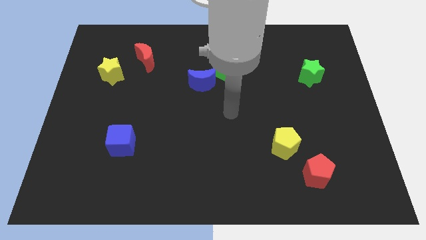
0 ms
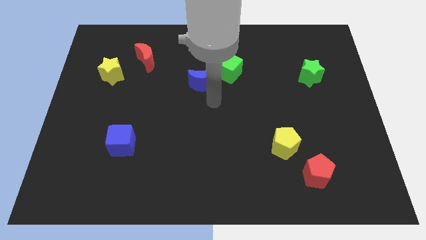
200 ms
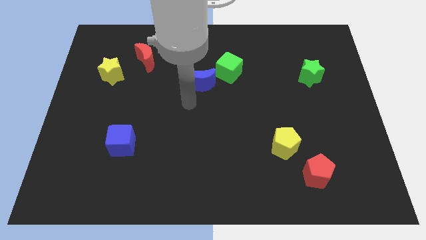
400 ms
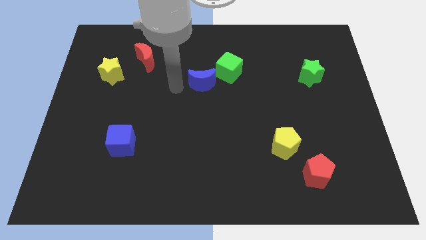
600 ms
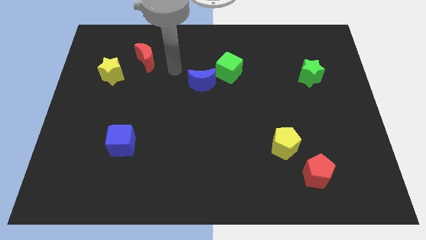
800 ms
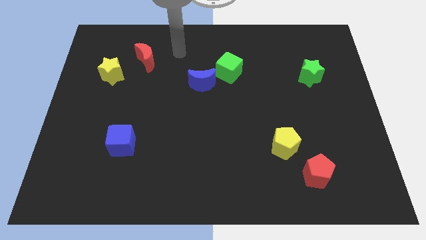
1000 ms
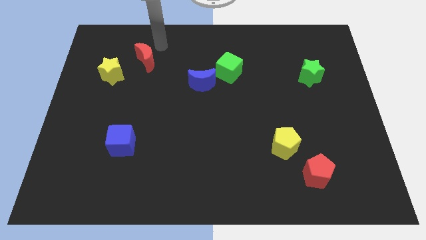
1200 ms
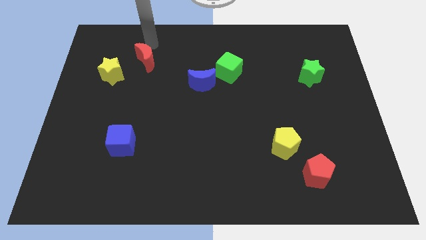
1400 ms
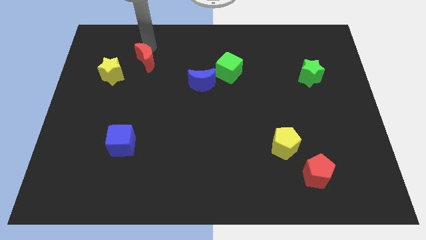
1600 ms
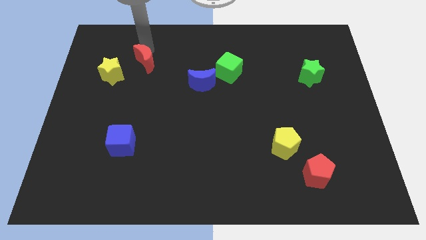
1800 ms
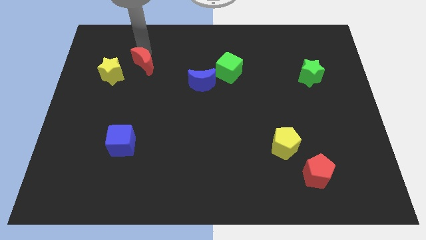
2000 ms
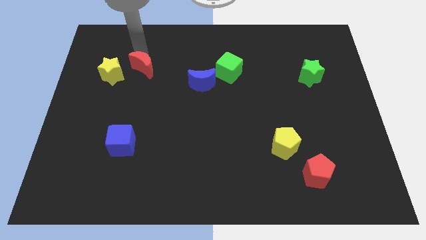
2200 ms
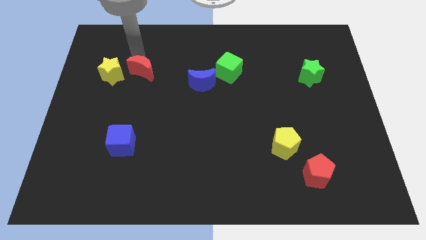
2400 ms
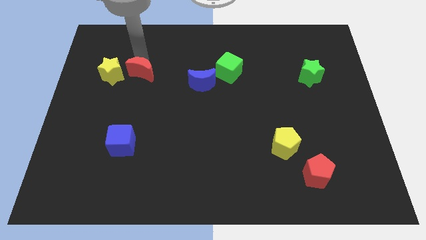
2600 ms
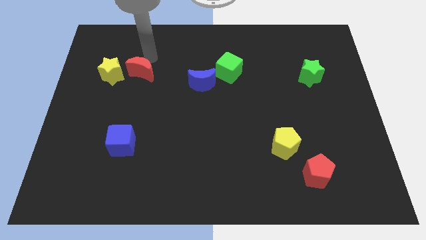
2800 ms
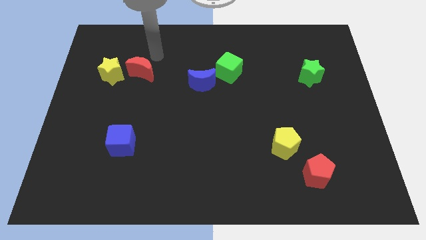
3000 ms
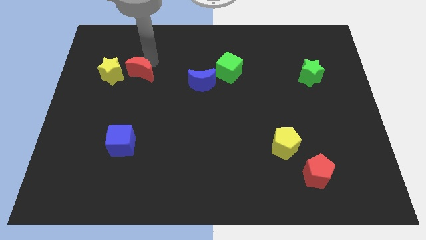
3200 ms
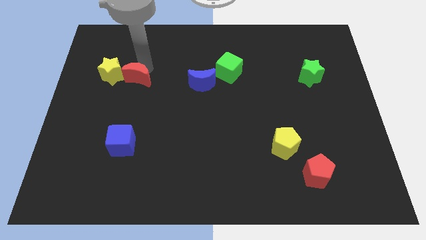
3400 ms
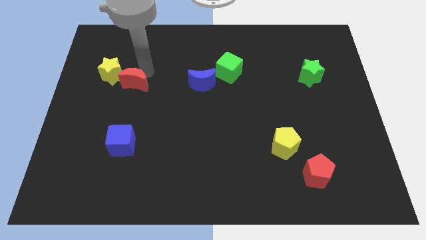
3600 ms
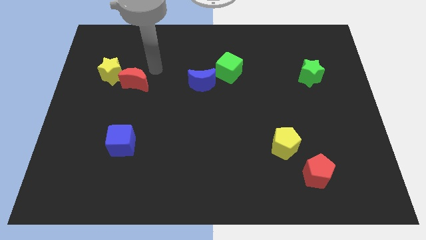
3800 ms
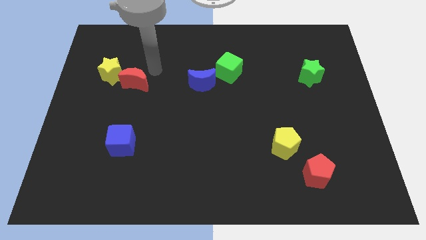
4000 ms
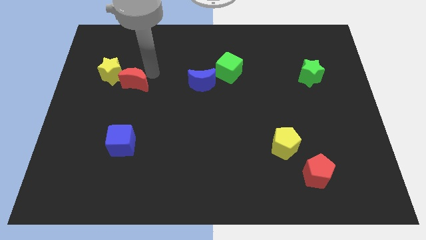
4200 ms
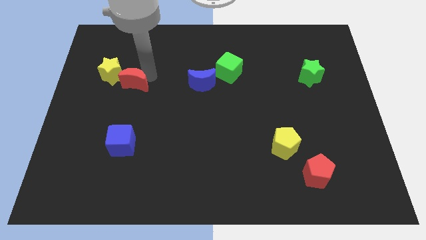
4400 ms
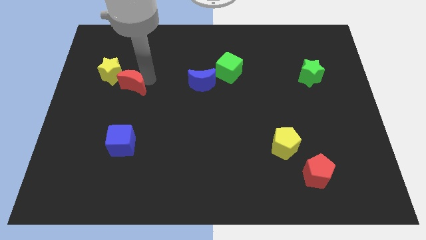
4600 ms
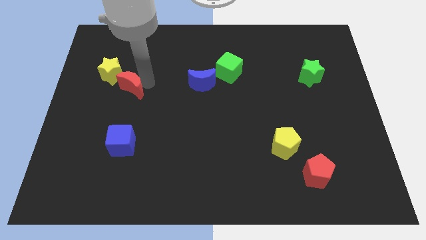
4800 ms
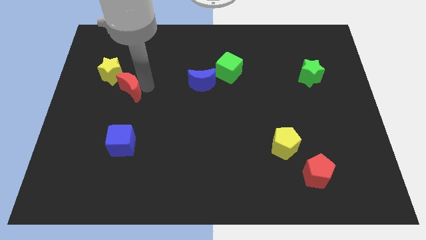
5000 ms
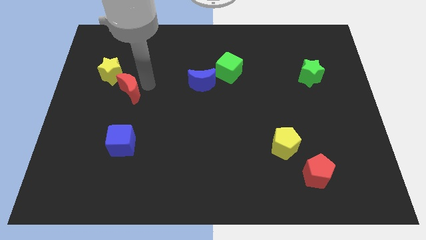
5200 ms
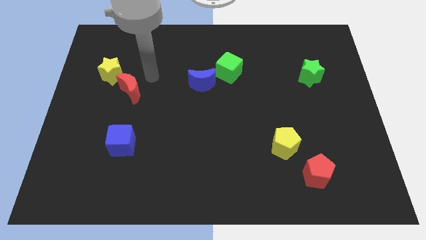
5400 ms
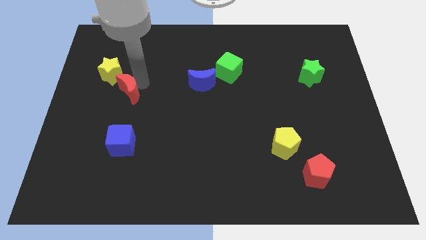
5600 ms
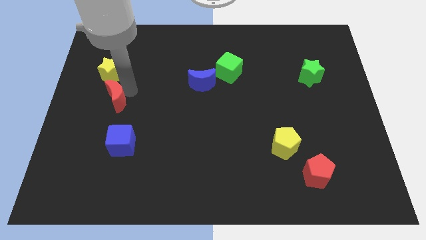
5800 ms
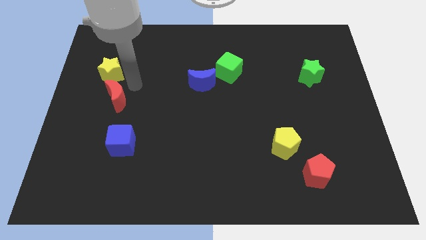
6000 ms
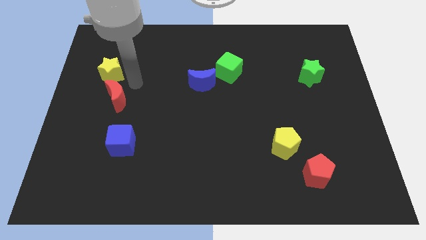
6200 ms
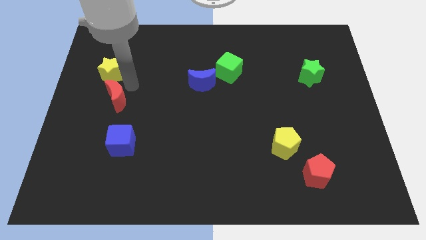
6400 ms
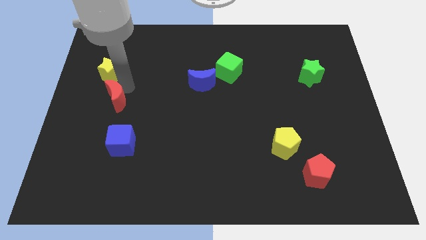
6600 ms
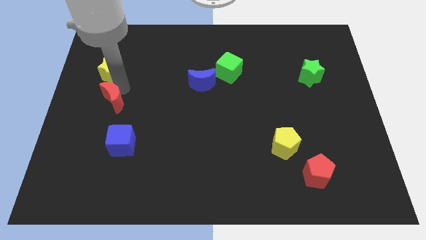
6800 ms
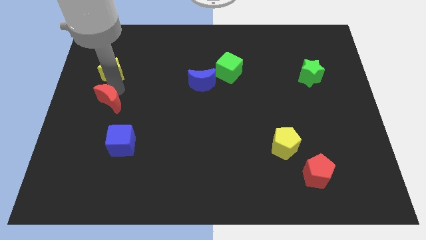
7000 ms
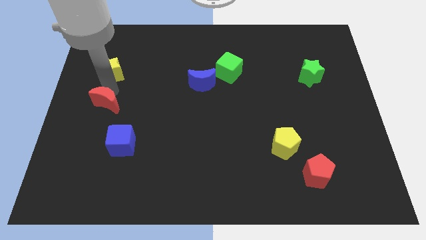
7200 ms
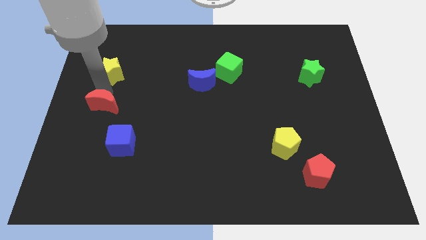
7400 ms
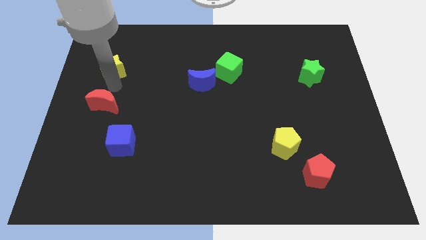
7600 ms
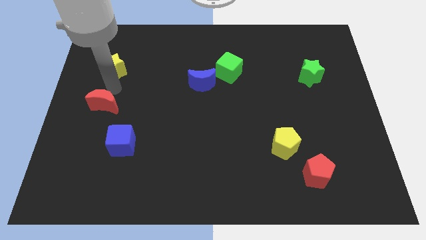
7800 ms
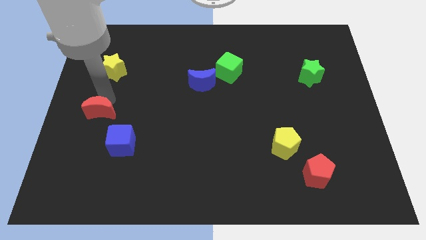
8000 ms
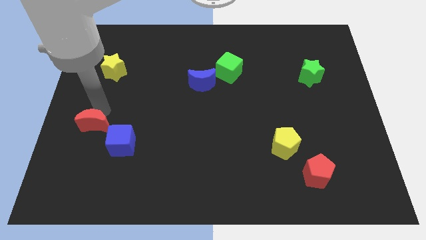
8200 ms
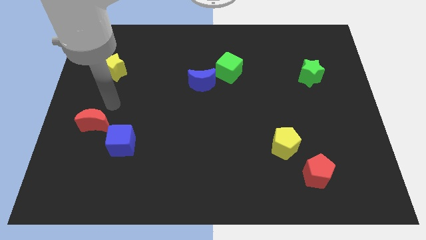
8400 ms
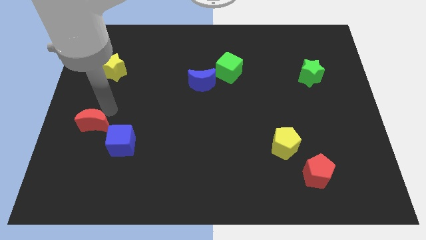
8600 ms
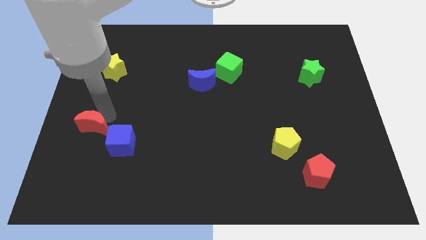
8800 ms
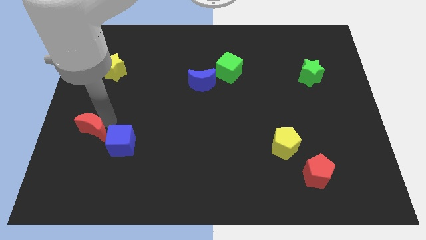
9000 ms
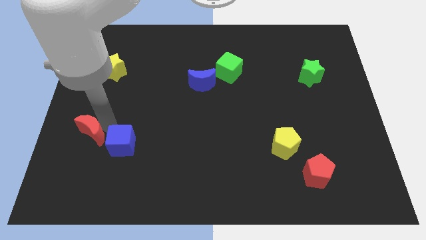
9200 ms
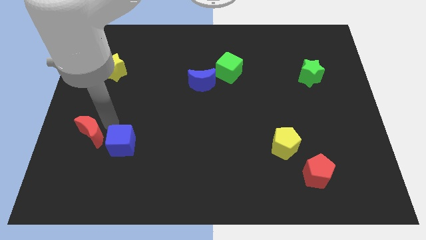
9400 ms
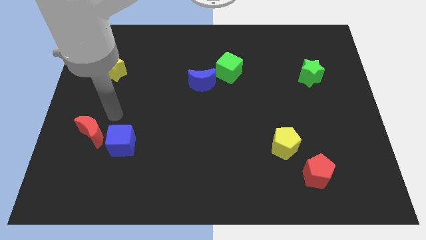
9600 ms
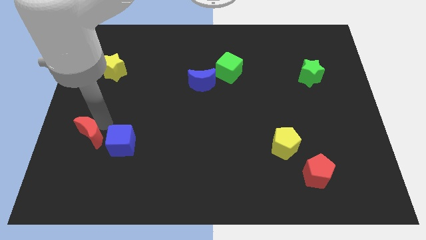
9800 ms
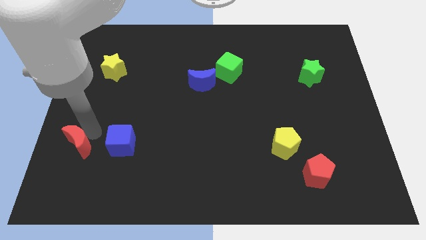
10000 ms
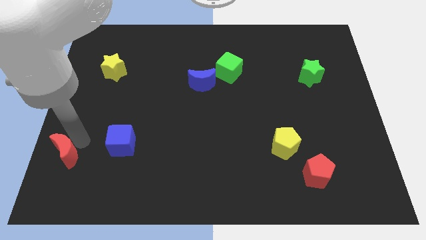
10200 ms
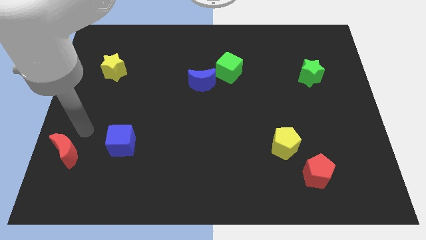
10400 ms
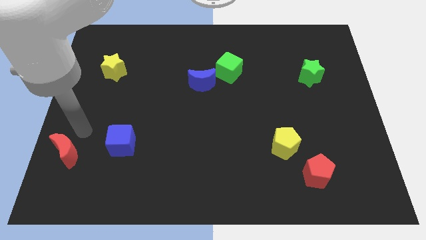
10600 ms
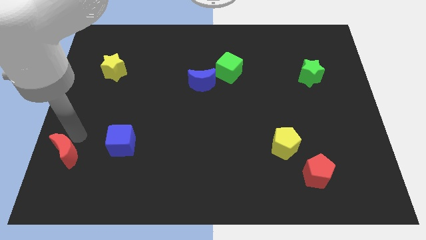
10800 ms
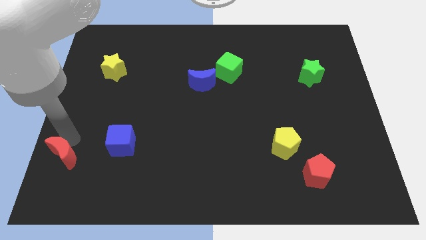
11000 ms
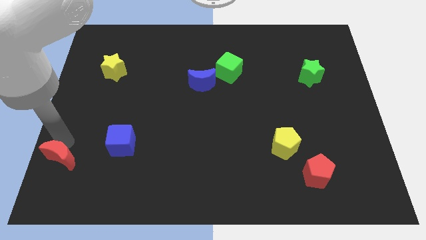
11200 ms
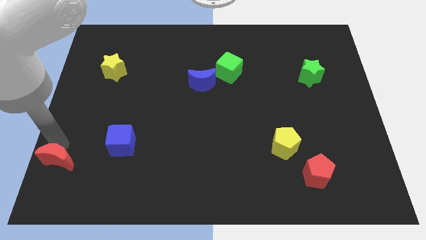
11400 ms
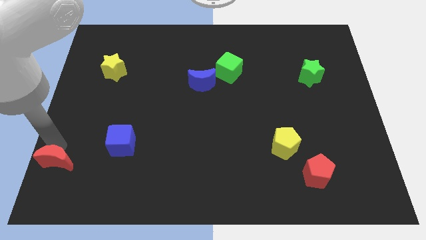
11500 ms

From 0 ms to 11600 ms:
push the red moon to the lower left corner

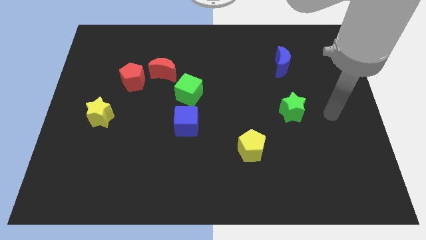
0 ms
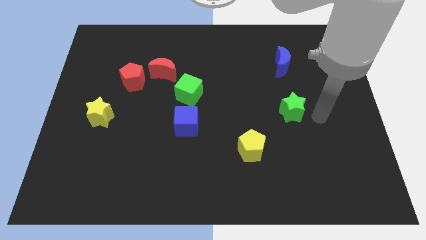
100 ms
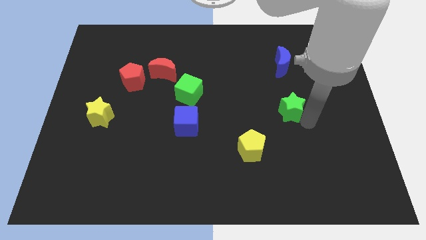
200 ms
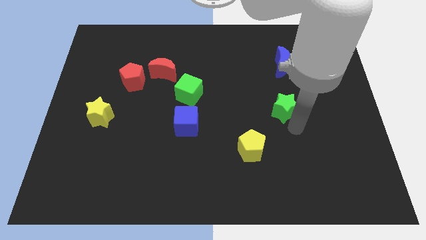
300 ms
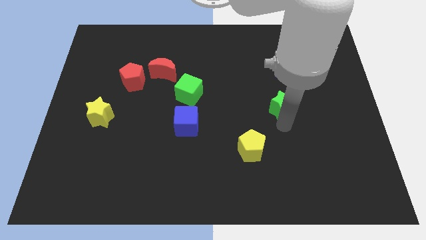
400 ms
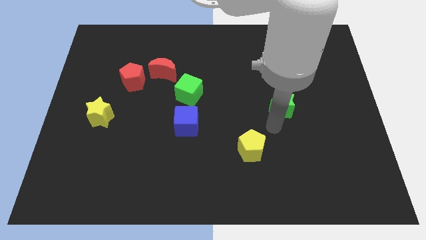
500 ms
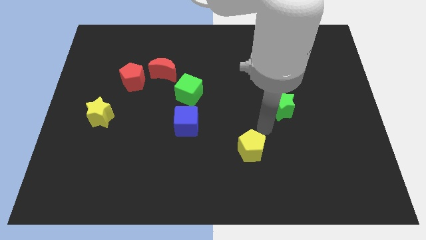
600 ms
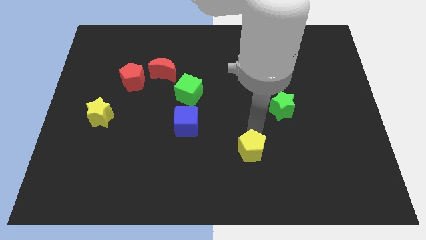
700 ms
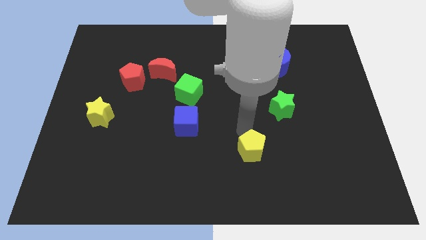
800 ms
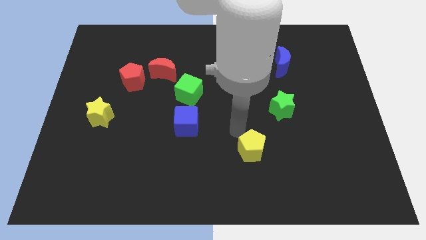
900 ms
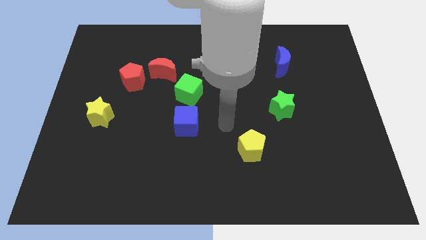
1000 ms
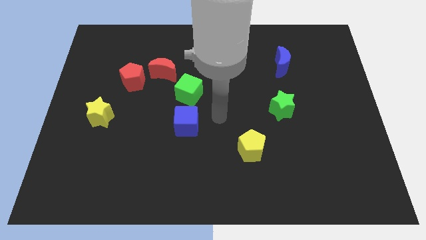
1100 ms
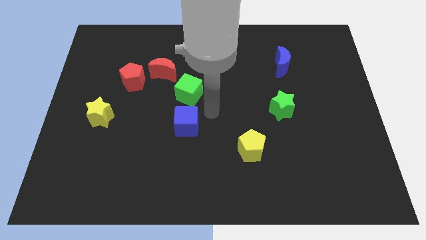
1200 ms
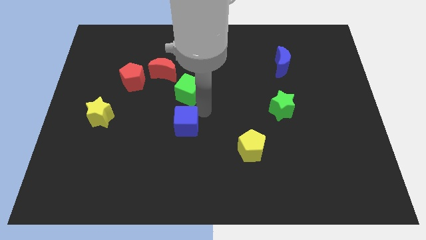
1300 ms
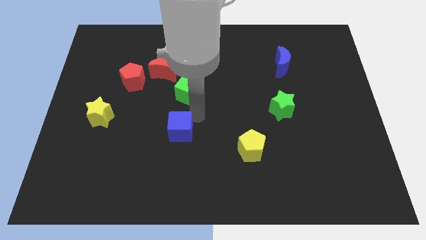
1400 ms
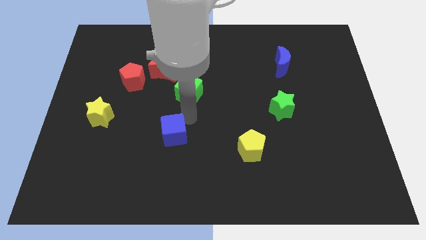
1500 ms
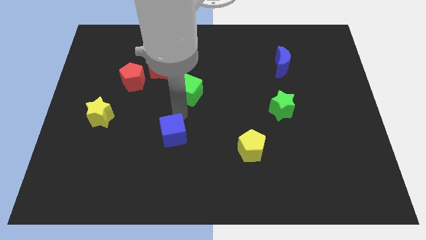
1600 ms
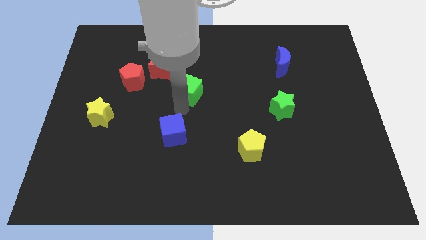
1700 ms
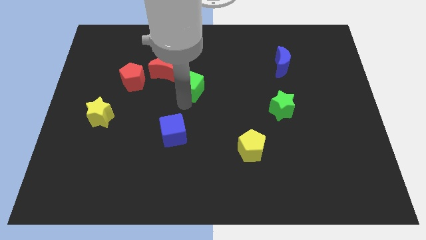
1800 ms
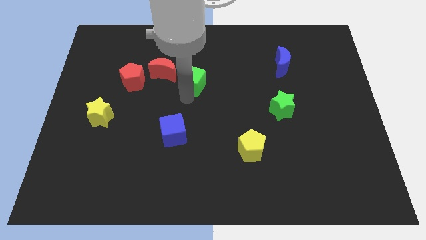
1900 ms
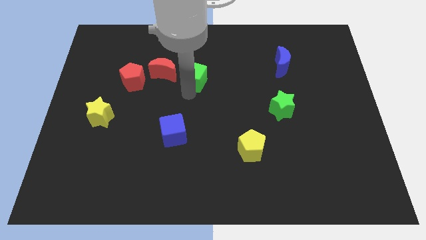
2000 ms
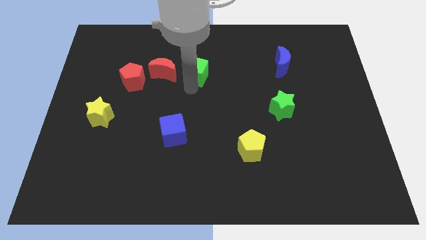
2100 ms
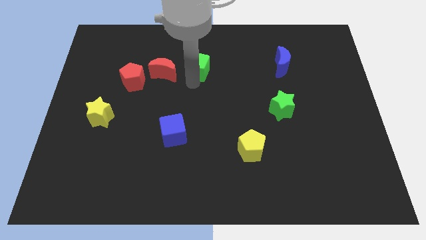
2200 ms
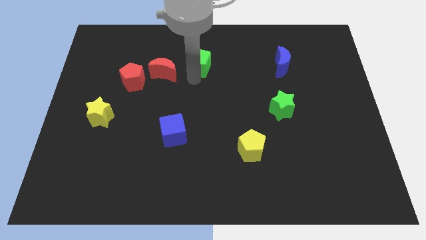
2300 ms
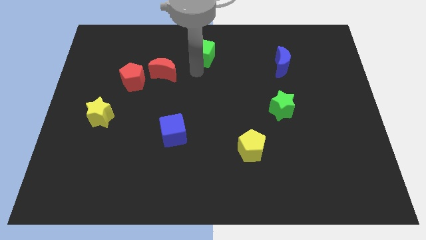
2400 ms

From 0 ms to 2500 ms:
put the green cube to the towards your base
